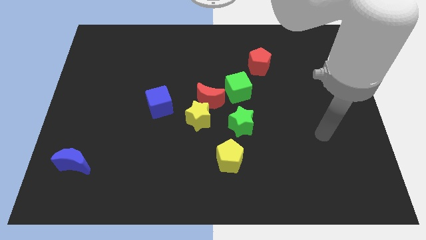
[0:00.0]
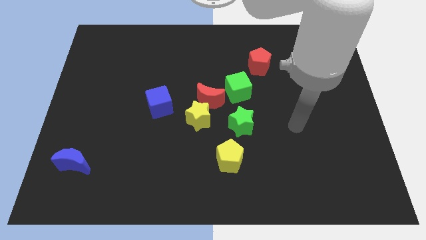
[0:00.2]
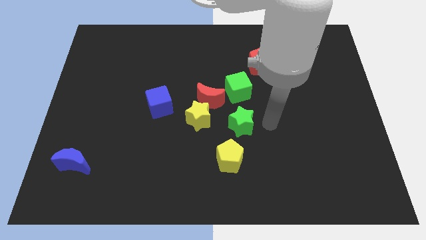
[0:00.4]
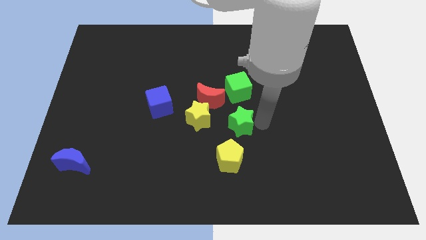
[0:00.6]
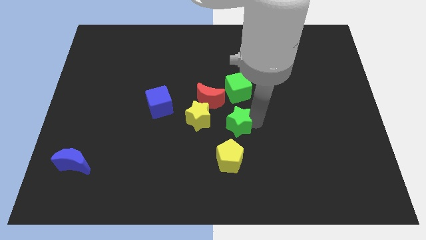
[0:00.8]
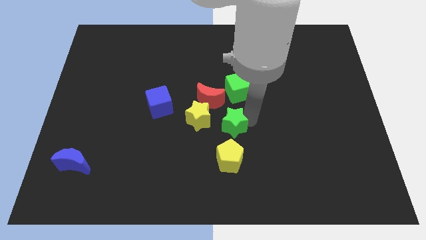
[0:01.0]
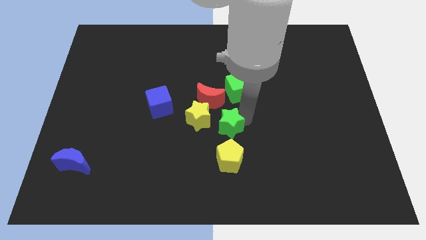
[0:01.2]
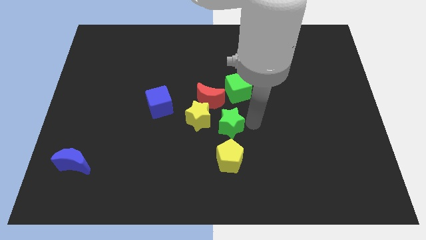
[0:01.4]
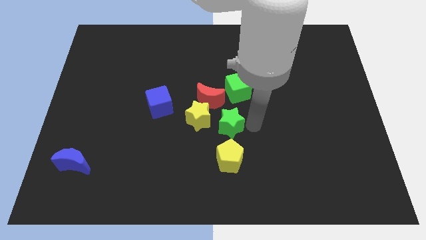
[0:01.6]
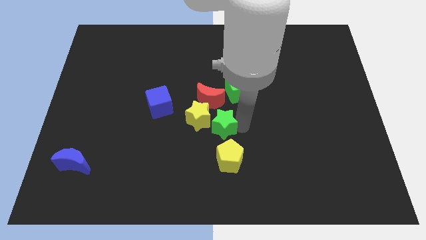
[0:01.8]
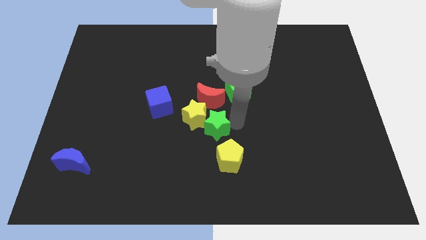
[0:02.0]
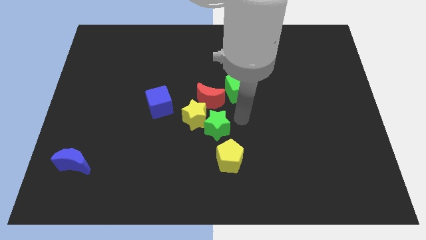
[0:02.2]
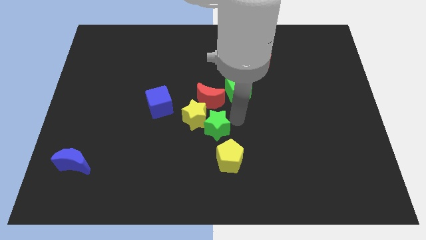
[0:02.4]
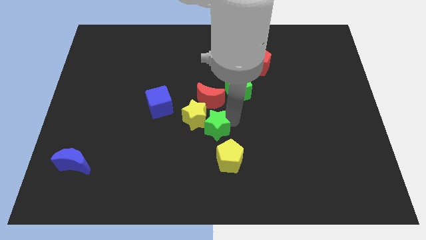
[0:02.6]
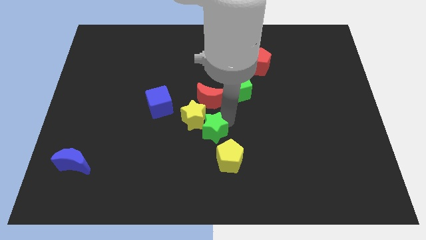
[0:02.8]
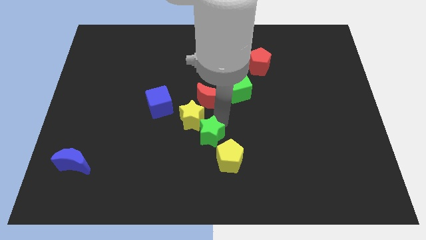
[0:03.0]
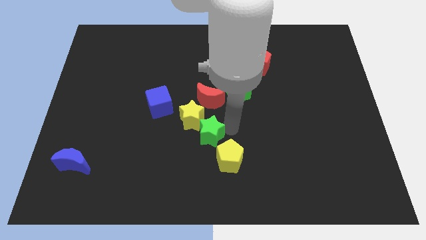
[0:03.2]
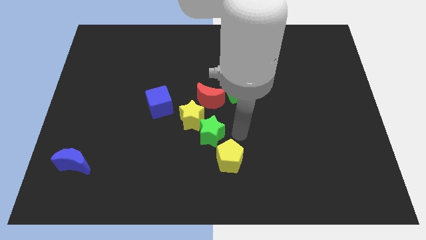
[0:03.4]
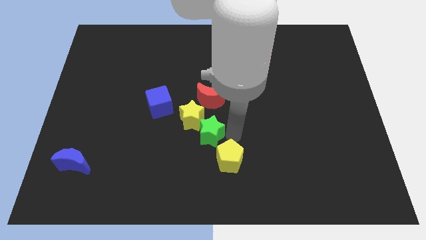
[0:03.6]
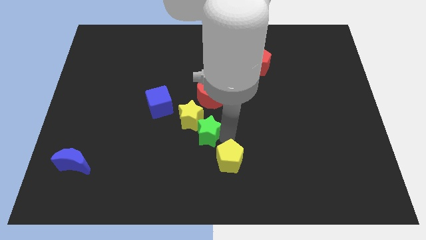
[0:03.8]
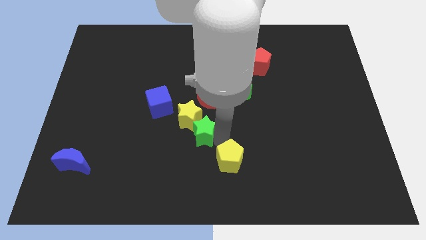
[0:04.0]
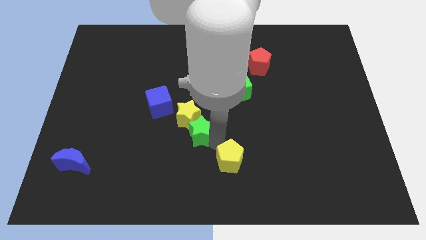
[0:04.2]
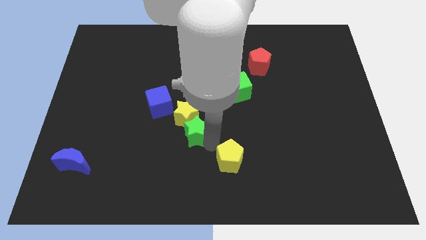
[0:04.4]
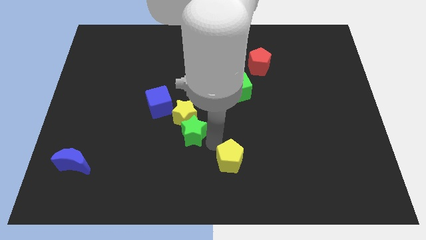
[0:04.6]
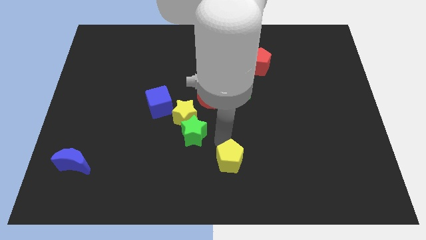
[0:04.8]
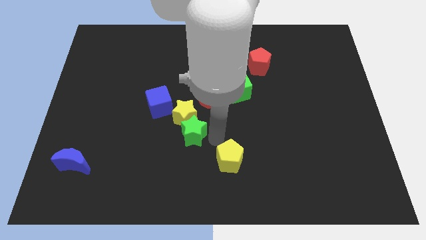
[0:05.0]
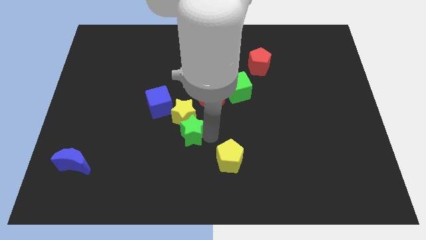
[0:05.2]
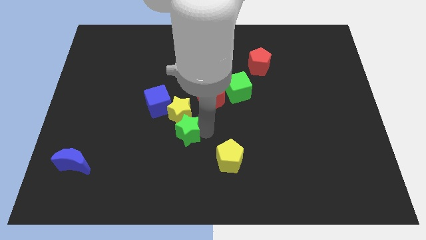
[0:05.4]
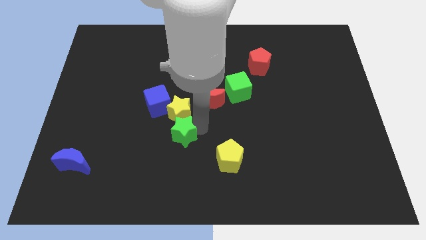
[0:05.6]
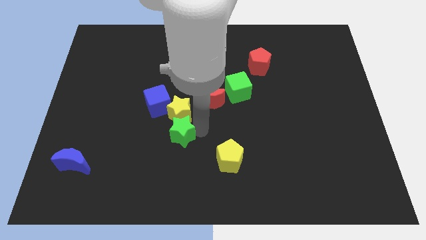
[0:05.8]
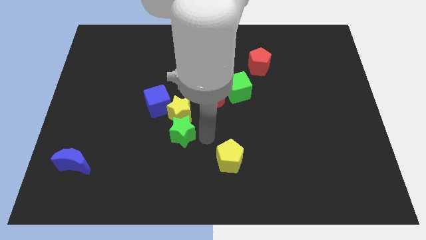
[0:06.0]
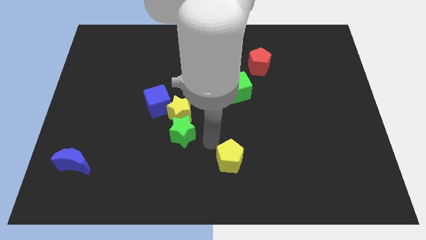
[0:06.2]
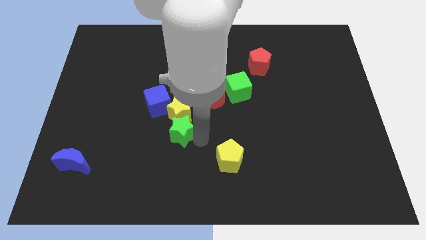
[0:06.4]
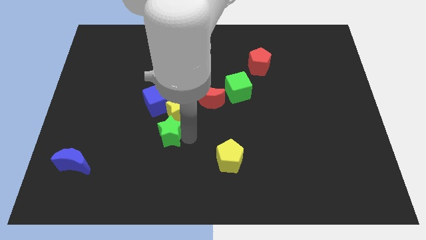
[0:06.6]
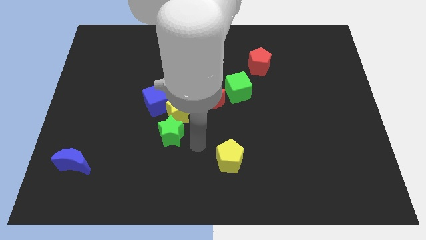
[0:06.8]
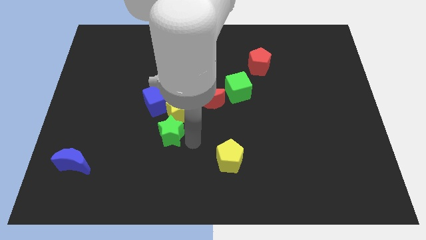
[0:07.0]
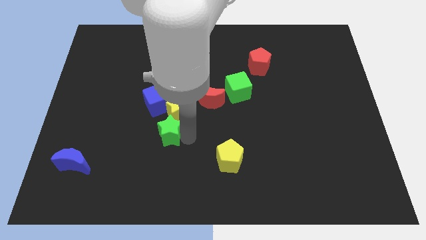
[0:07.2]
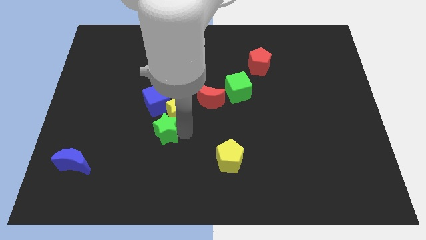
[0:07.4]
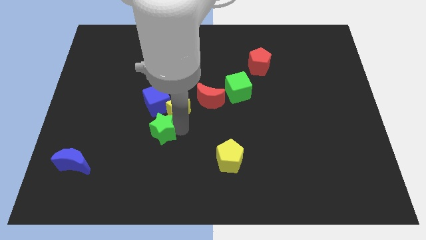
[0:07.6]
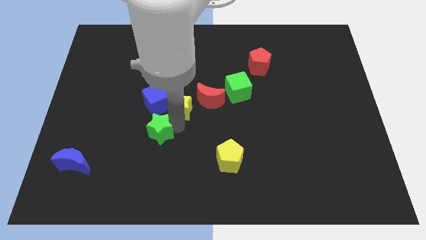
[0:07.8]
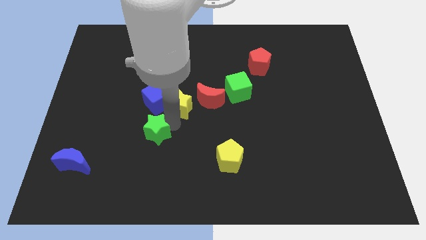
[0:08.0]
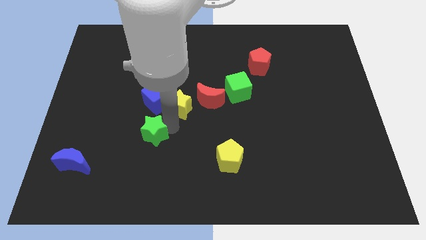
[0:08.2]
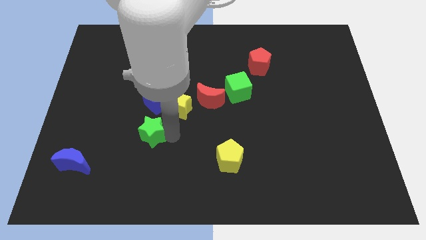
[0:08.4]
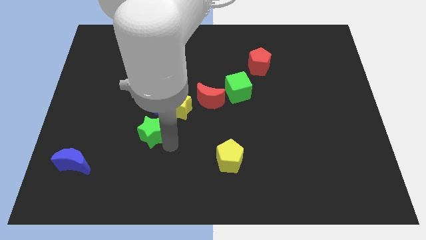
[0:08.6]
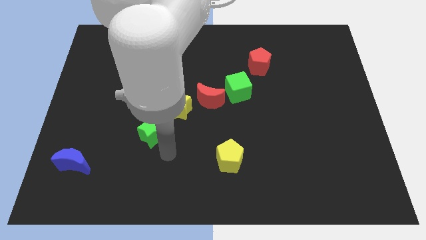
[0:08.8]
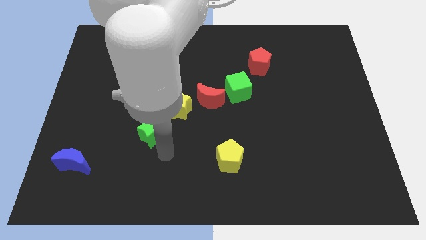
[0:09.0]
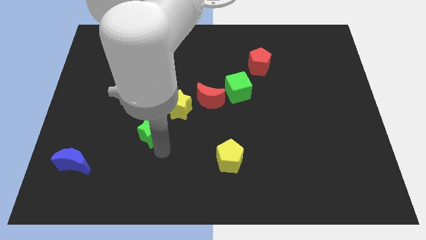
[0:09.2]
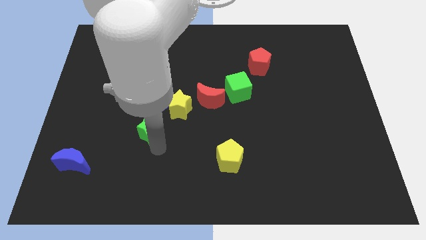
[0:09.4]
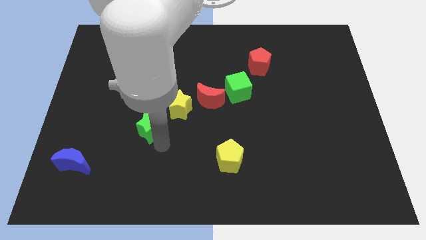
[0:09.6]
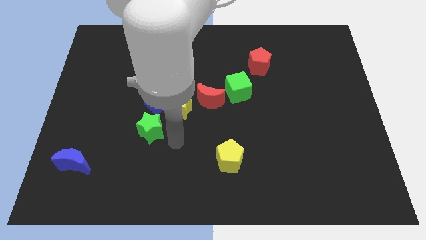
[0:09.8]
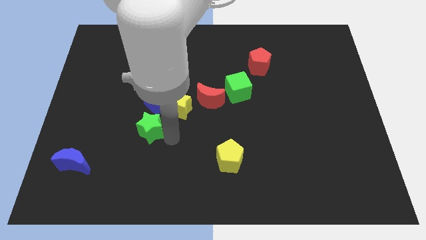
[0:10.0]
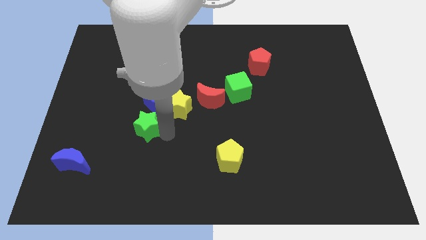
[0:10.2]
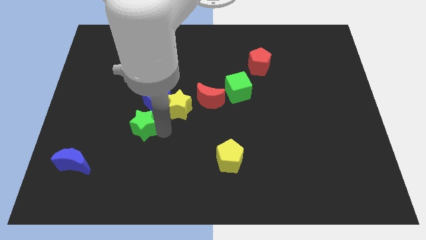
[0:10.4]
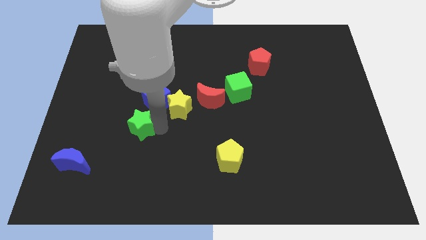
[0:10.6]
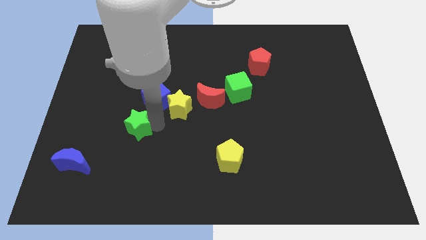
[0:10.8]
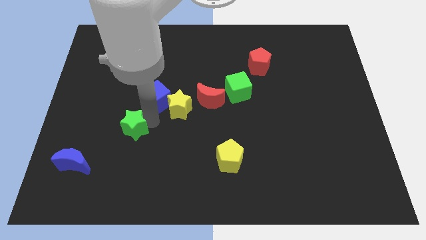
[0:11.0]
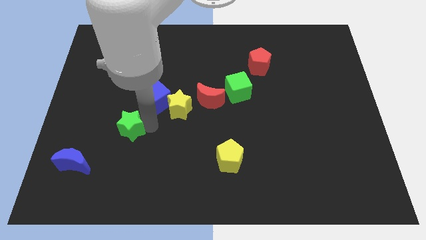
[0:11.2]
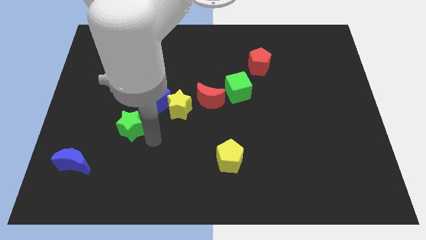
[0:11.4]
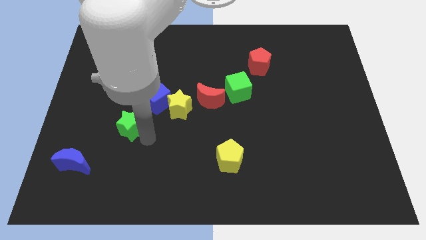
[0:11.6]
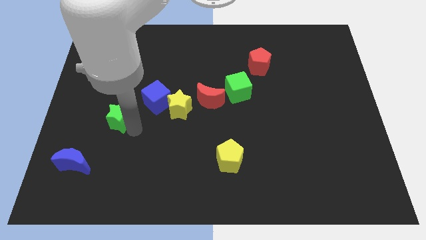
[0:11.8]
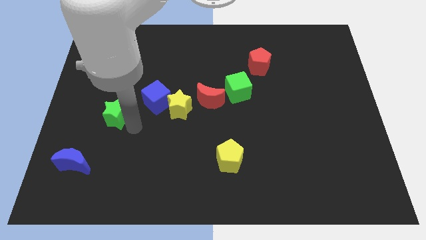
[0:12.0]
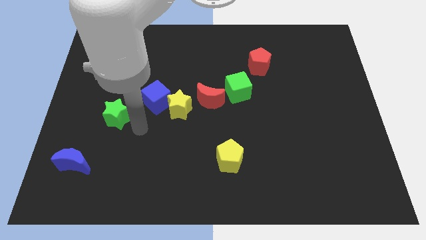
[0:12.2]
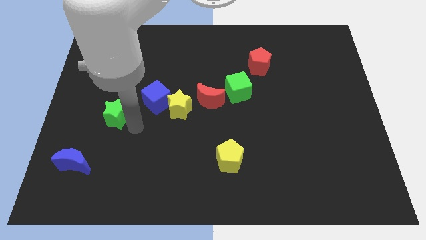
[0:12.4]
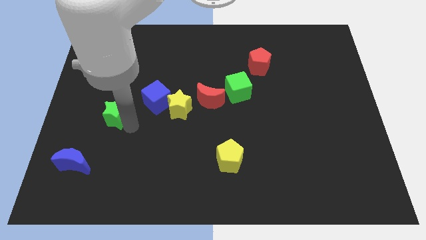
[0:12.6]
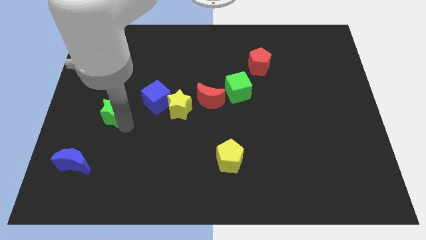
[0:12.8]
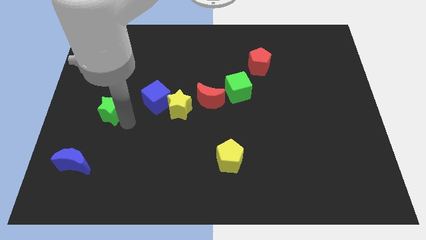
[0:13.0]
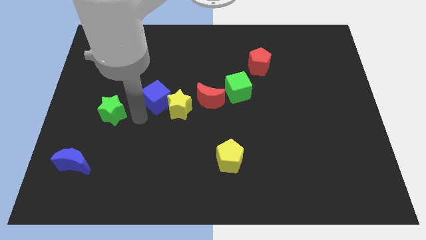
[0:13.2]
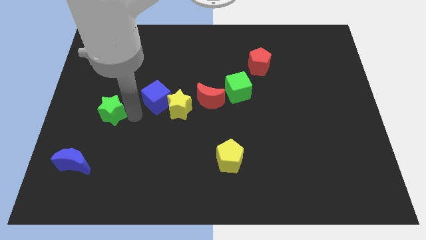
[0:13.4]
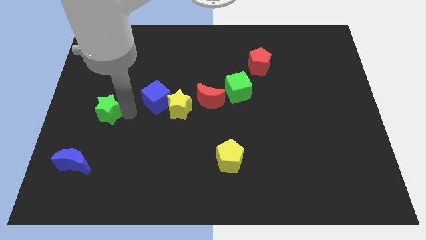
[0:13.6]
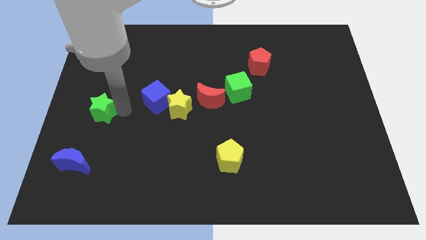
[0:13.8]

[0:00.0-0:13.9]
move the green star to the left side of the board
